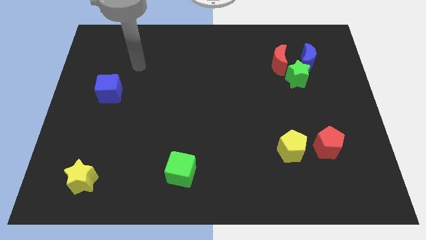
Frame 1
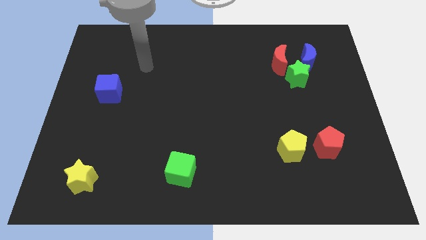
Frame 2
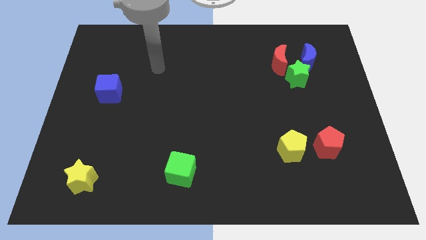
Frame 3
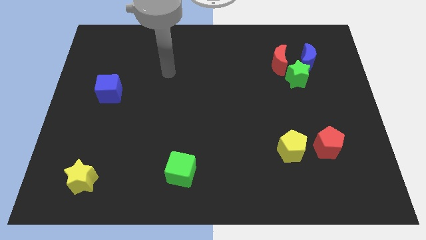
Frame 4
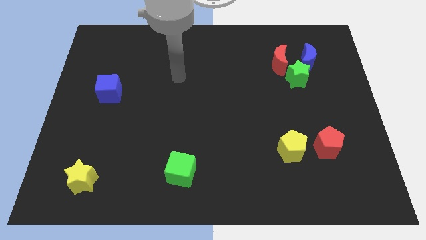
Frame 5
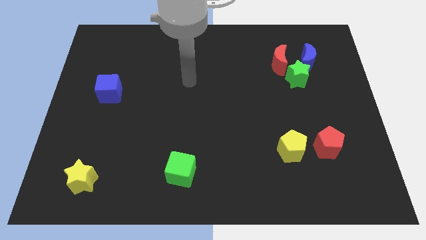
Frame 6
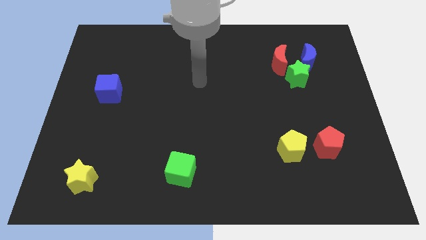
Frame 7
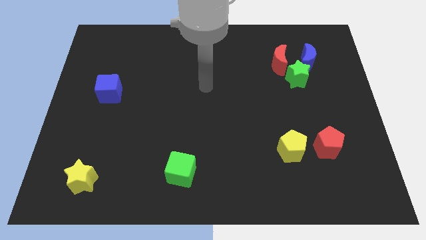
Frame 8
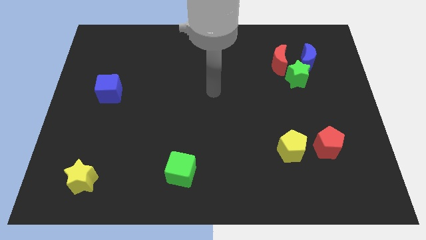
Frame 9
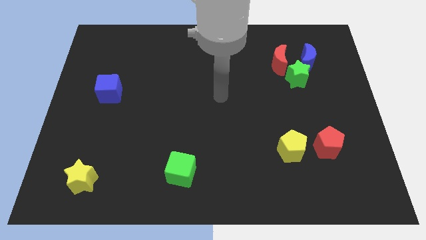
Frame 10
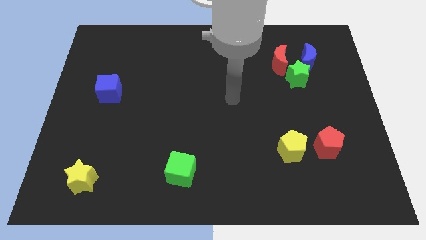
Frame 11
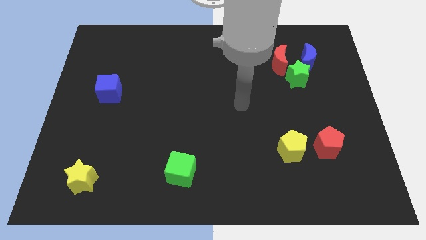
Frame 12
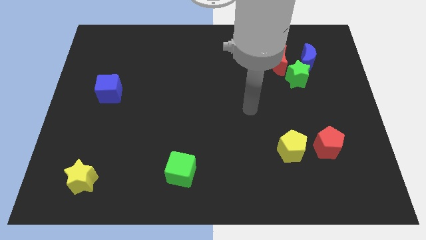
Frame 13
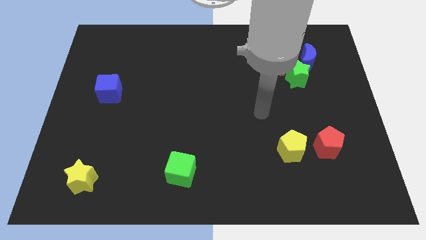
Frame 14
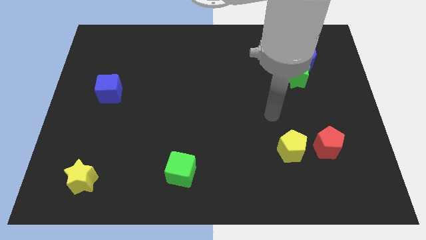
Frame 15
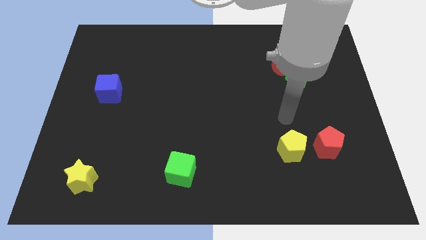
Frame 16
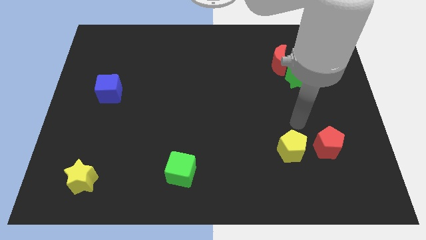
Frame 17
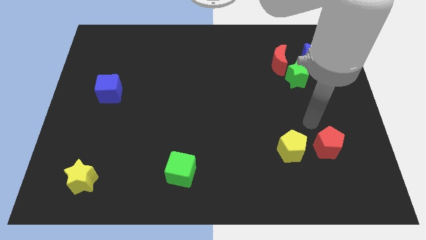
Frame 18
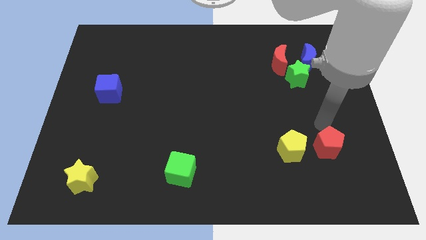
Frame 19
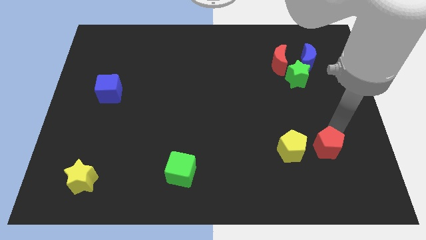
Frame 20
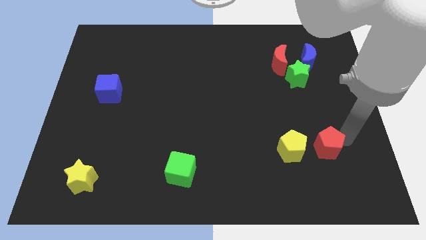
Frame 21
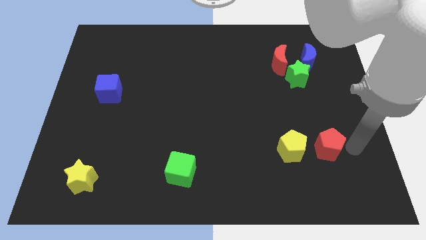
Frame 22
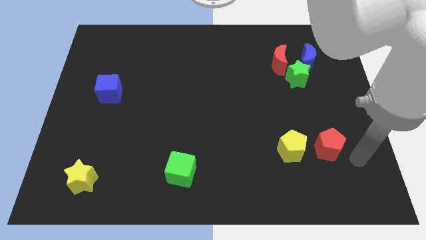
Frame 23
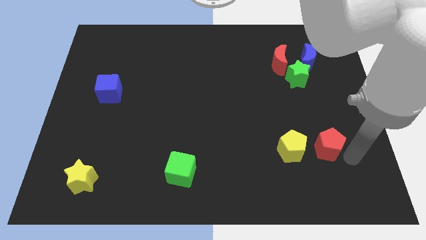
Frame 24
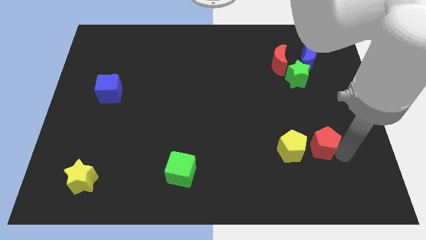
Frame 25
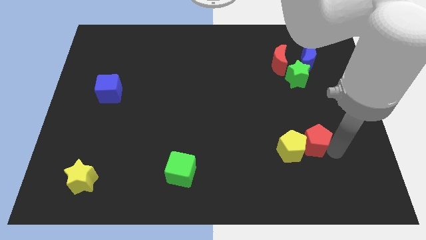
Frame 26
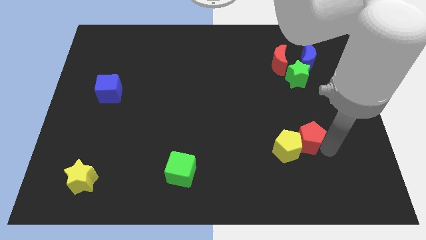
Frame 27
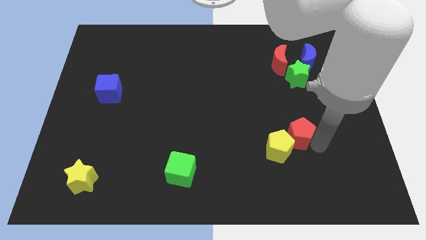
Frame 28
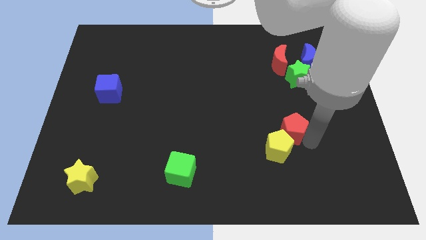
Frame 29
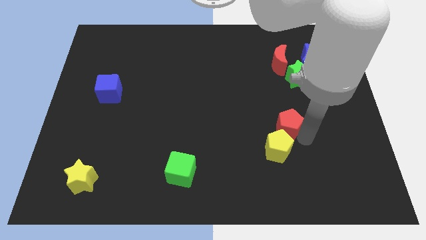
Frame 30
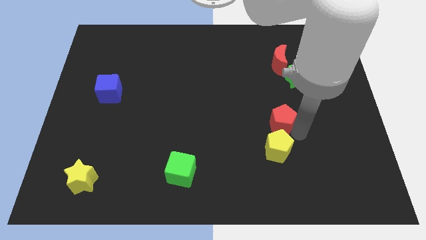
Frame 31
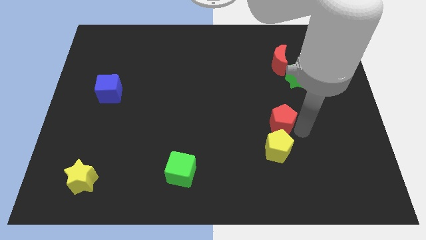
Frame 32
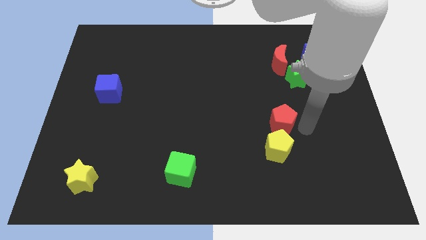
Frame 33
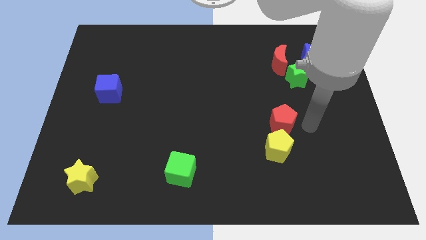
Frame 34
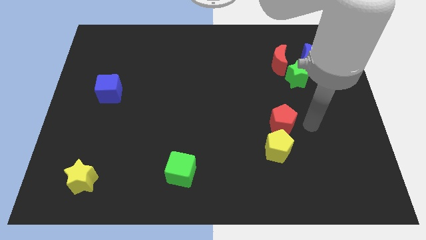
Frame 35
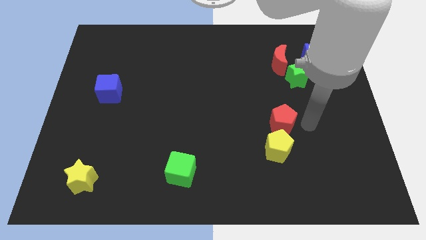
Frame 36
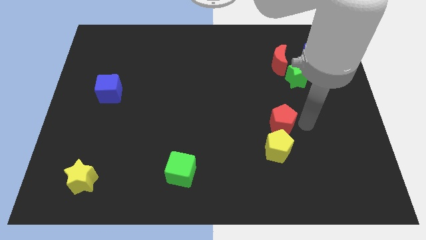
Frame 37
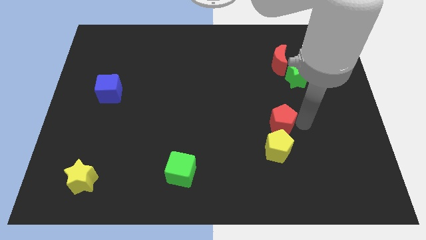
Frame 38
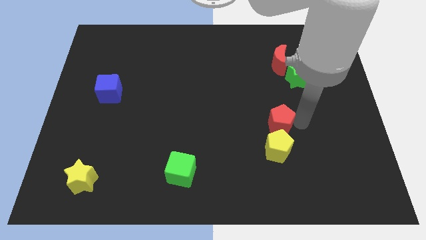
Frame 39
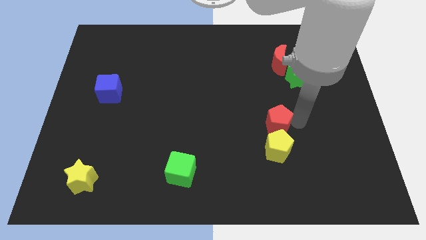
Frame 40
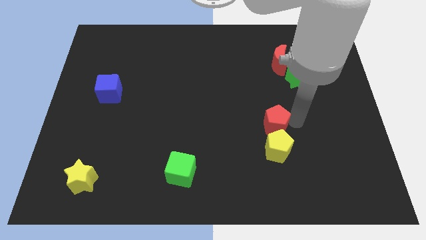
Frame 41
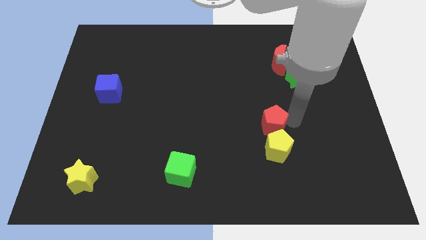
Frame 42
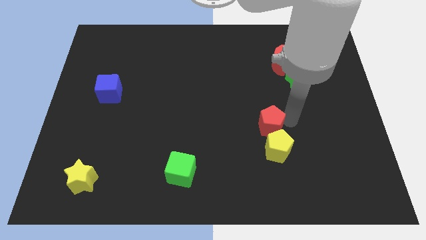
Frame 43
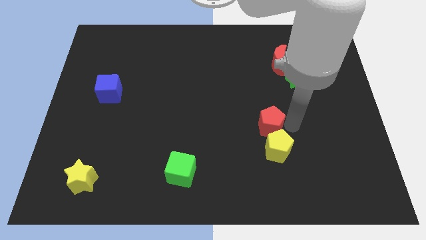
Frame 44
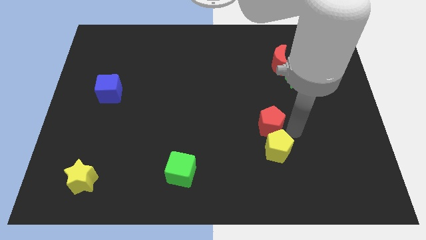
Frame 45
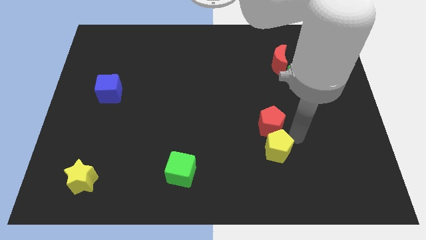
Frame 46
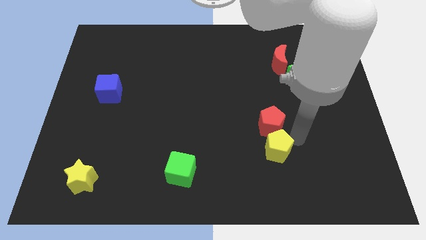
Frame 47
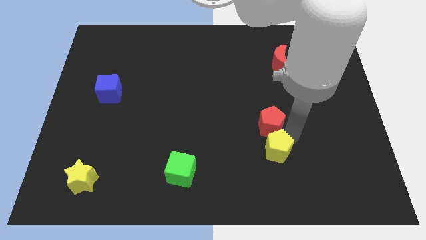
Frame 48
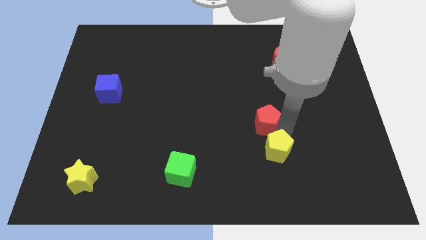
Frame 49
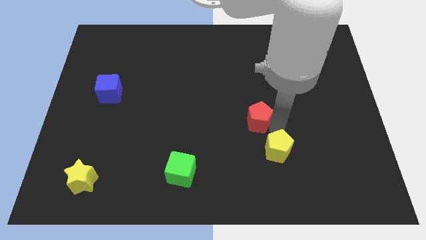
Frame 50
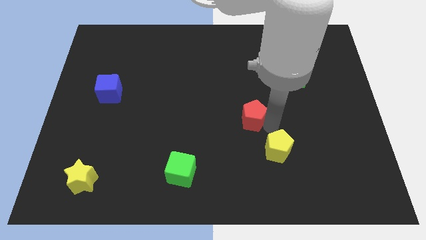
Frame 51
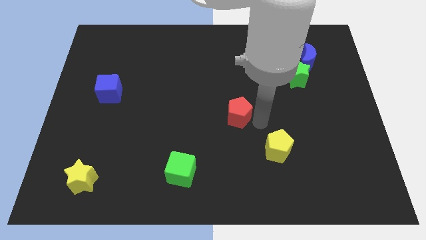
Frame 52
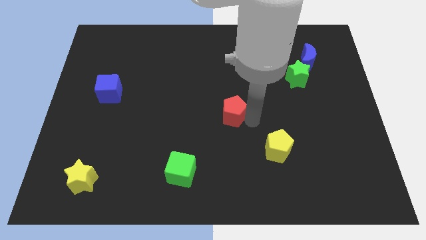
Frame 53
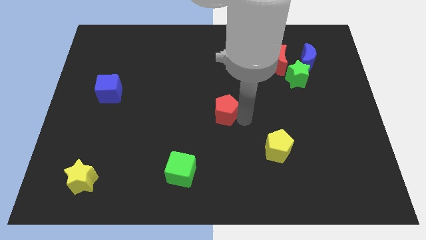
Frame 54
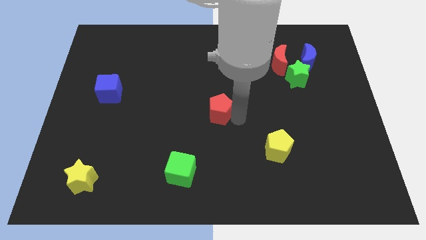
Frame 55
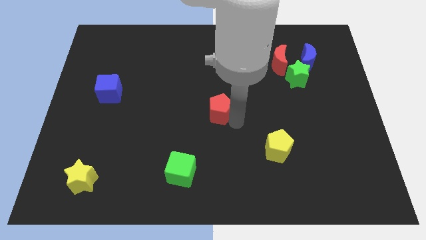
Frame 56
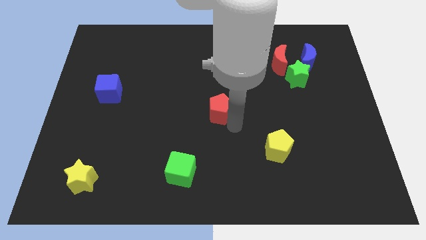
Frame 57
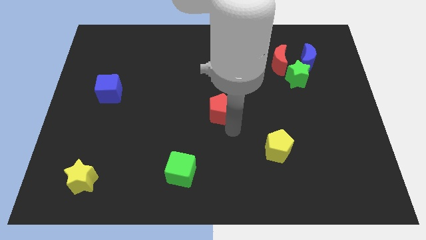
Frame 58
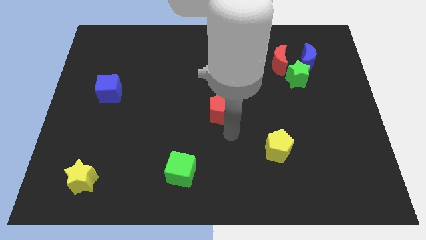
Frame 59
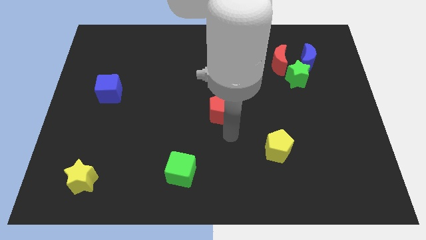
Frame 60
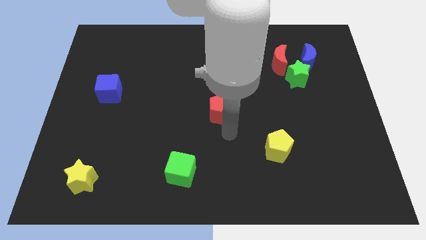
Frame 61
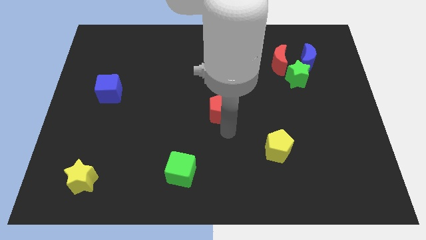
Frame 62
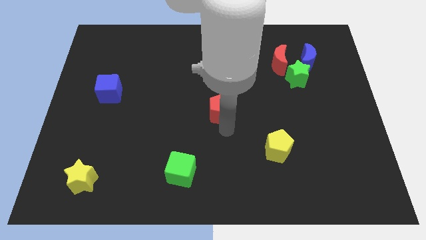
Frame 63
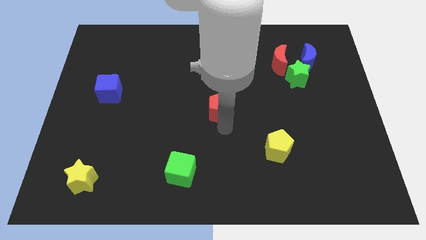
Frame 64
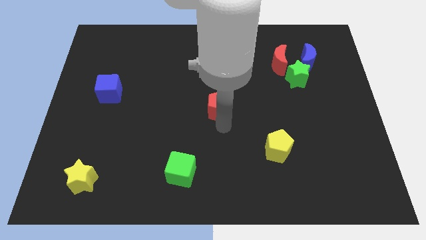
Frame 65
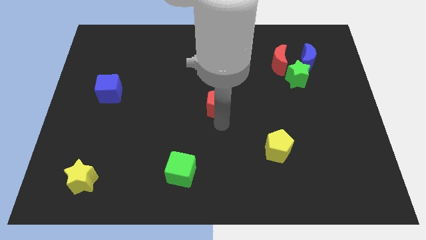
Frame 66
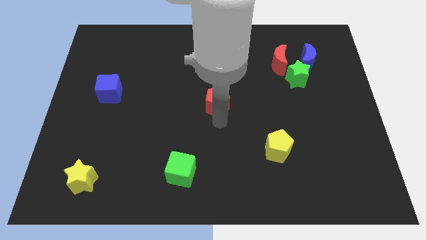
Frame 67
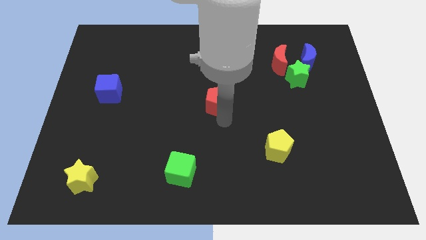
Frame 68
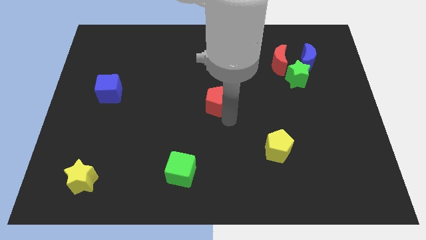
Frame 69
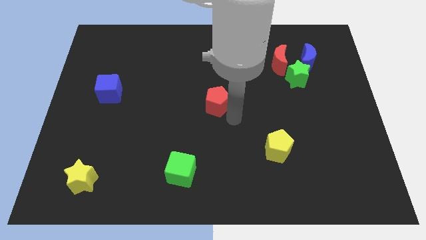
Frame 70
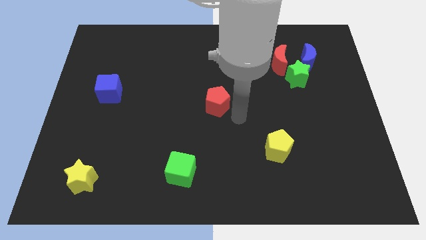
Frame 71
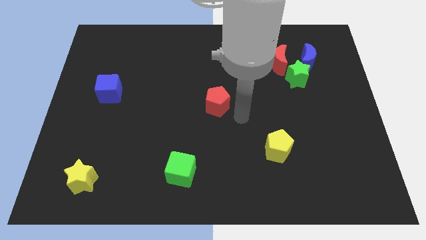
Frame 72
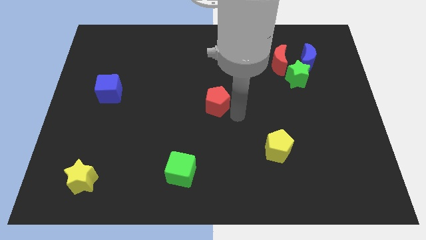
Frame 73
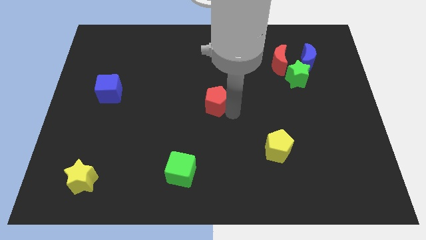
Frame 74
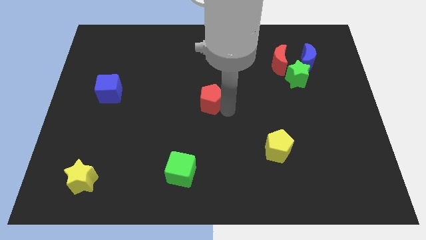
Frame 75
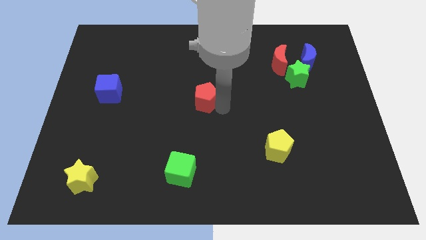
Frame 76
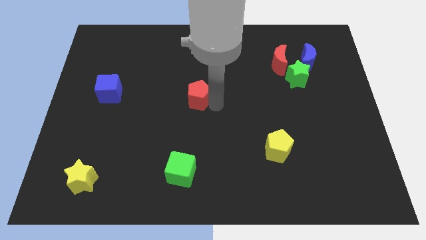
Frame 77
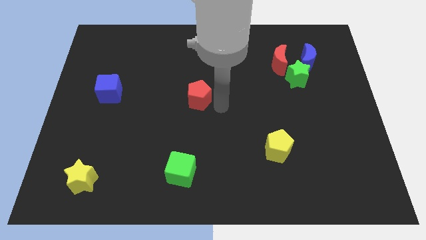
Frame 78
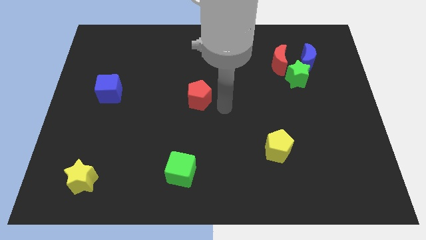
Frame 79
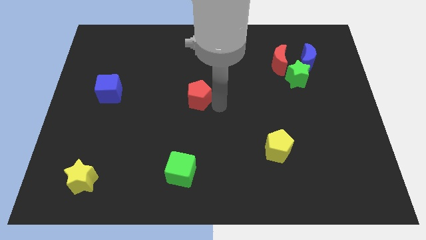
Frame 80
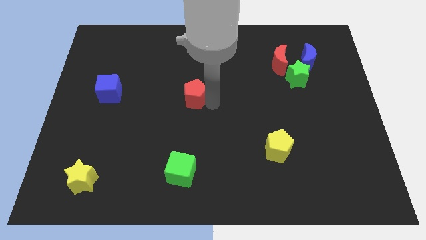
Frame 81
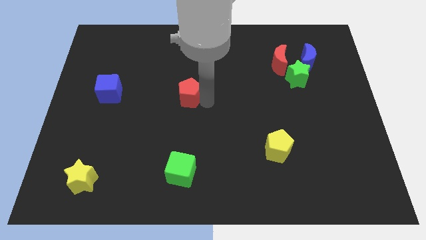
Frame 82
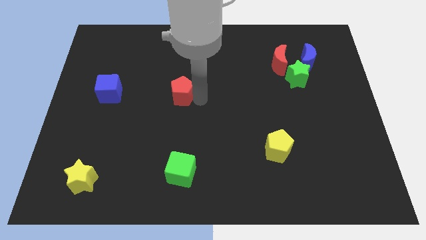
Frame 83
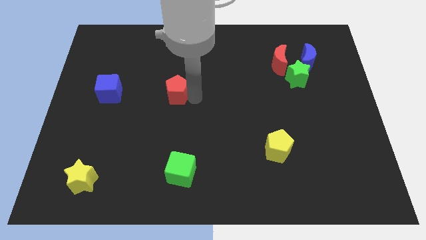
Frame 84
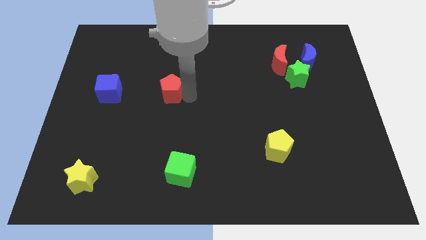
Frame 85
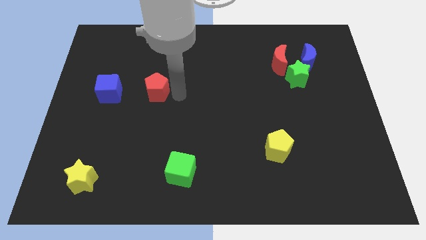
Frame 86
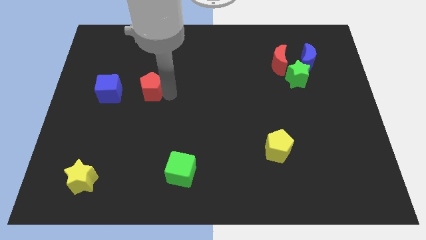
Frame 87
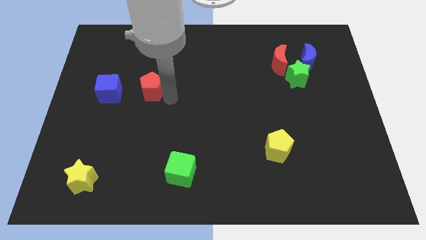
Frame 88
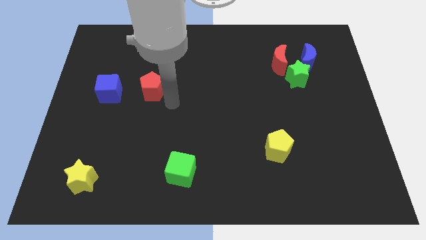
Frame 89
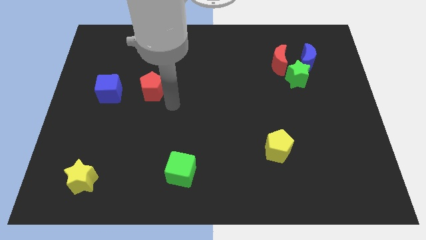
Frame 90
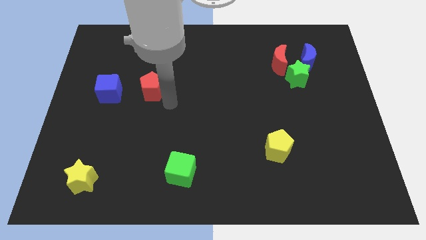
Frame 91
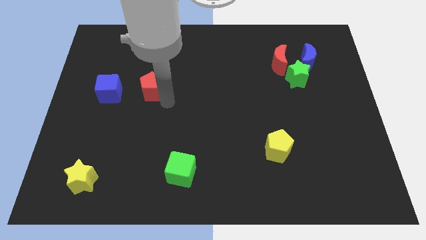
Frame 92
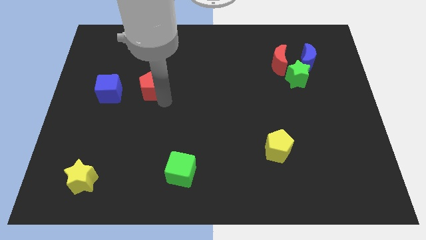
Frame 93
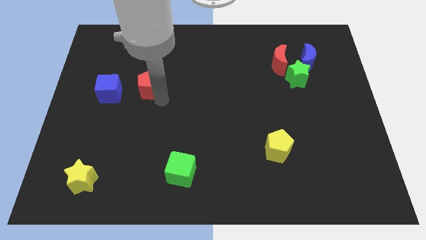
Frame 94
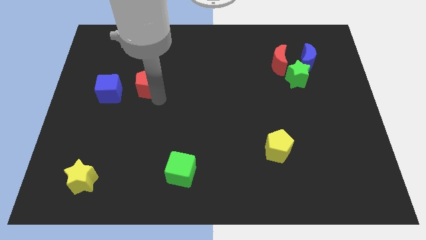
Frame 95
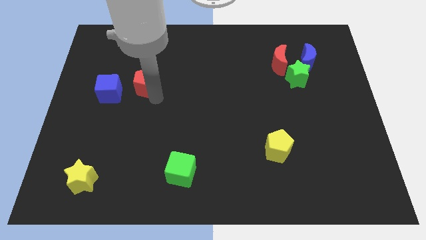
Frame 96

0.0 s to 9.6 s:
push the red pentagon to the top right of the blue cube
